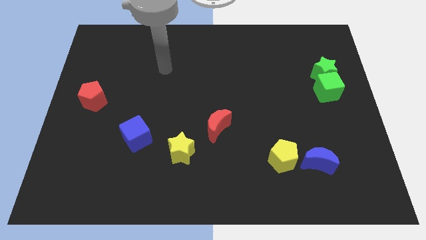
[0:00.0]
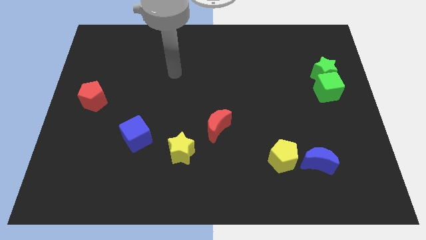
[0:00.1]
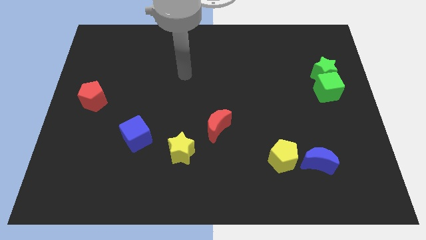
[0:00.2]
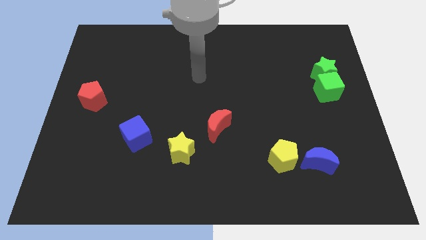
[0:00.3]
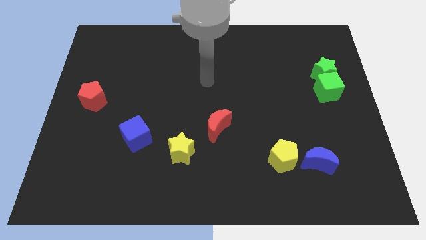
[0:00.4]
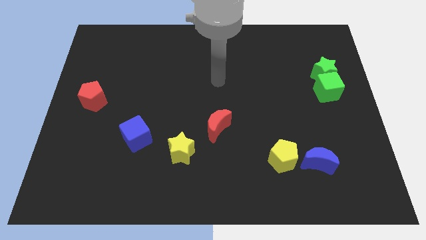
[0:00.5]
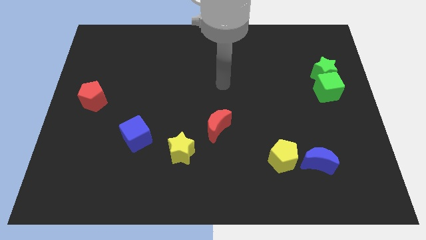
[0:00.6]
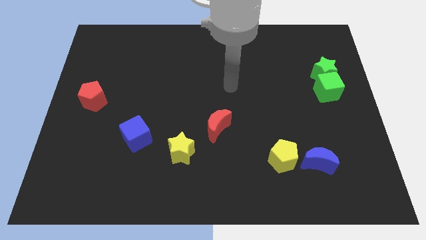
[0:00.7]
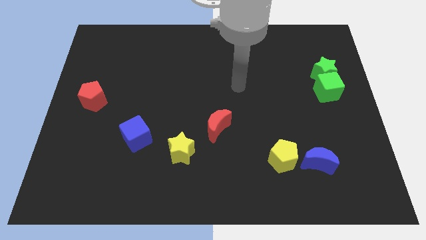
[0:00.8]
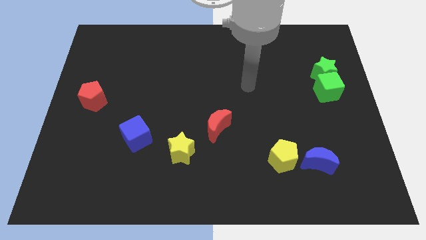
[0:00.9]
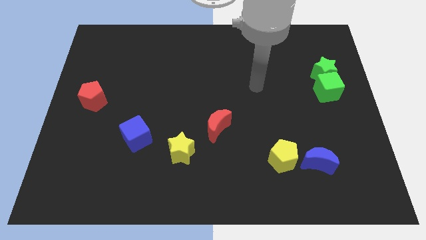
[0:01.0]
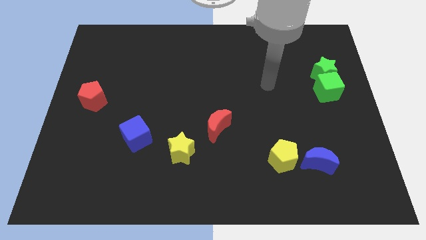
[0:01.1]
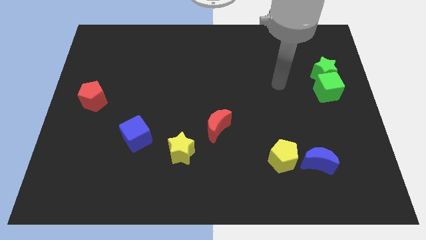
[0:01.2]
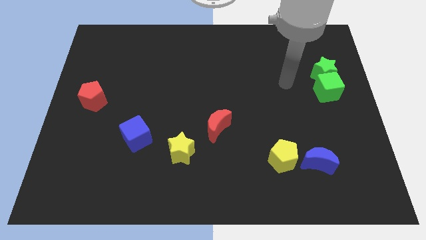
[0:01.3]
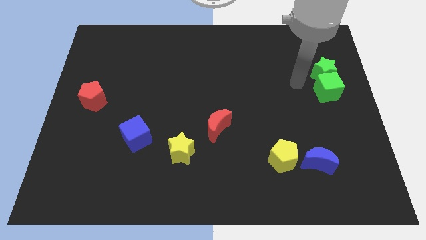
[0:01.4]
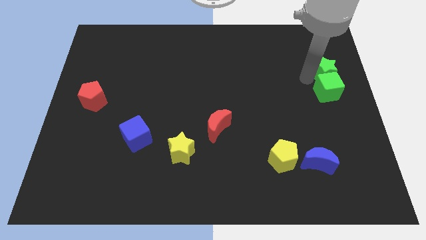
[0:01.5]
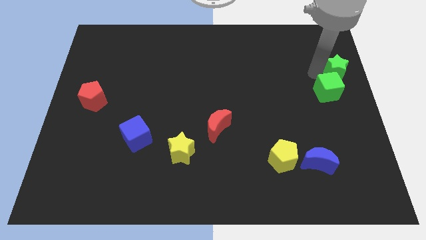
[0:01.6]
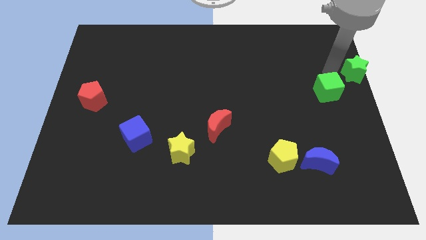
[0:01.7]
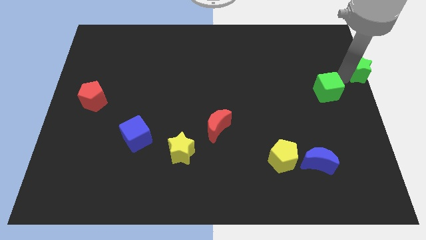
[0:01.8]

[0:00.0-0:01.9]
move the green cube away from the green star

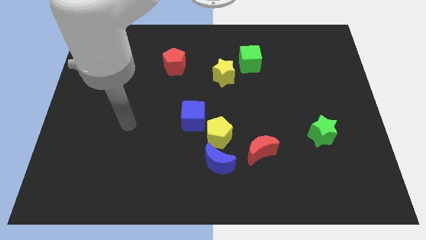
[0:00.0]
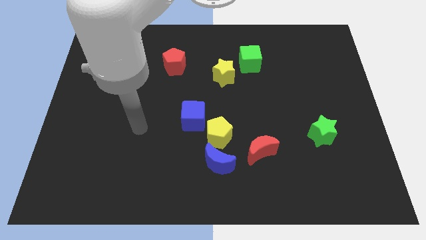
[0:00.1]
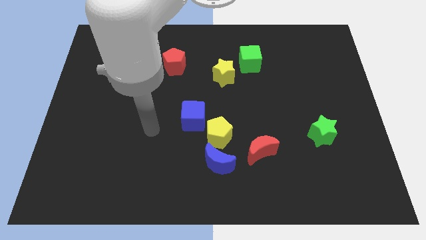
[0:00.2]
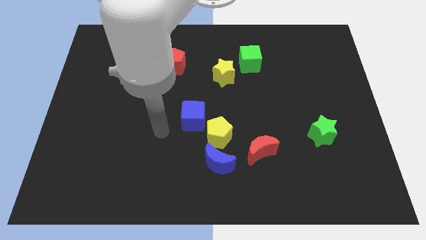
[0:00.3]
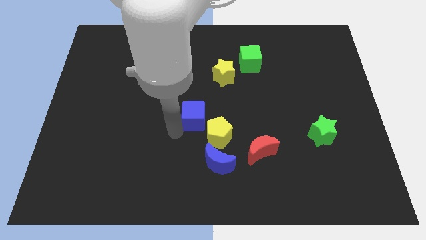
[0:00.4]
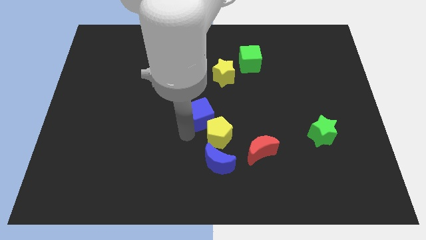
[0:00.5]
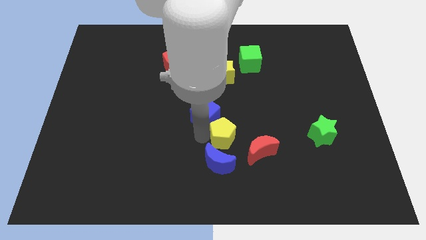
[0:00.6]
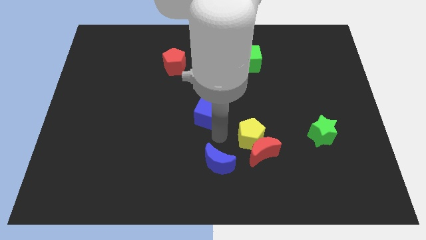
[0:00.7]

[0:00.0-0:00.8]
move the blue cube away from the yellow pentagon

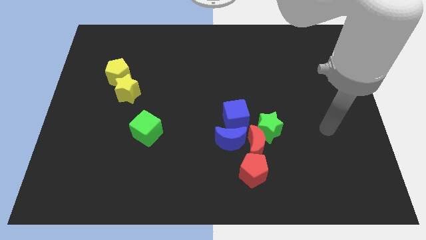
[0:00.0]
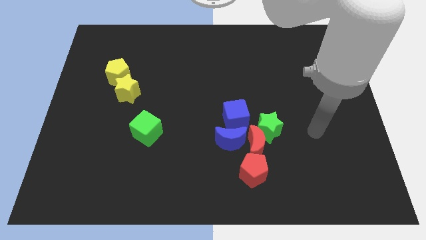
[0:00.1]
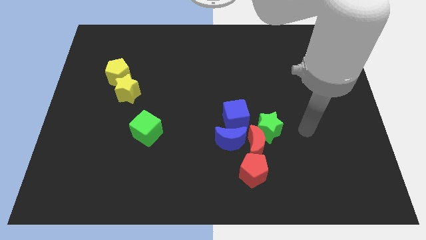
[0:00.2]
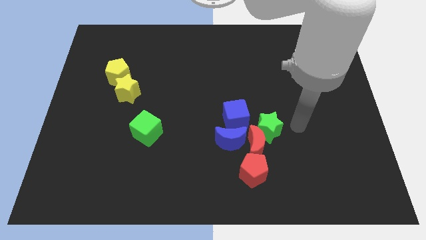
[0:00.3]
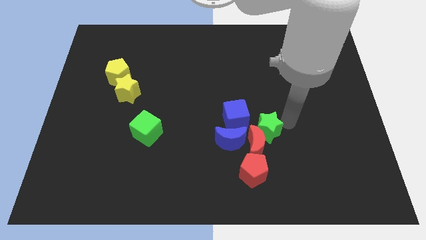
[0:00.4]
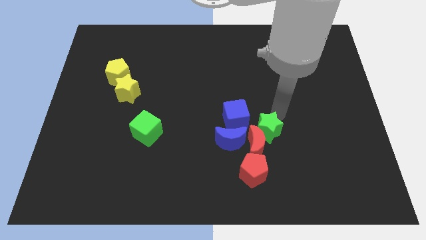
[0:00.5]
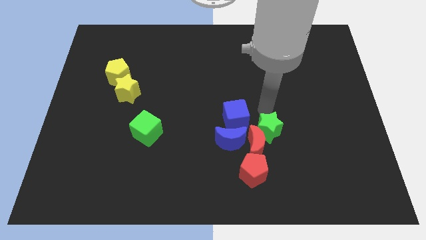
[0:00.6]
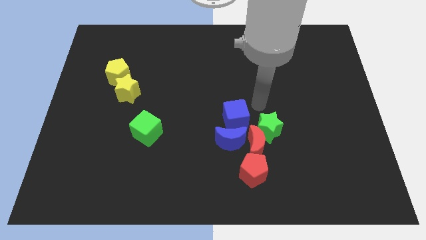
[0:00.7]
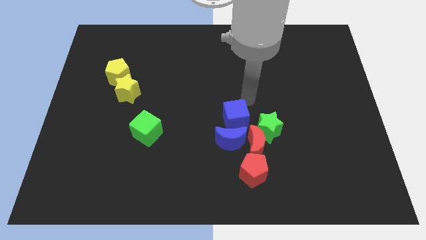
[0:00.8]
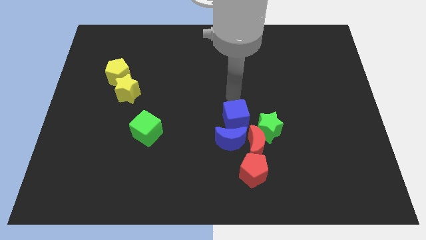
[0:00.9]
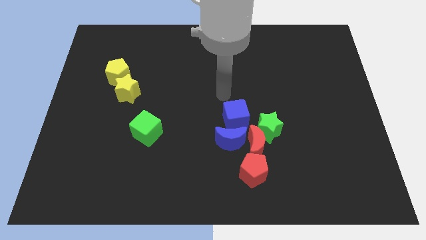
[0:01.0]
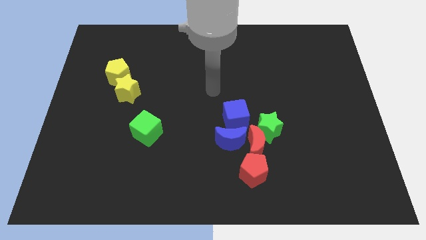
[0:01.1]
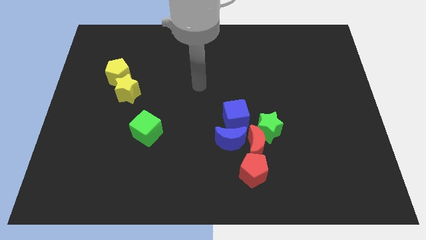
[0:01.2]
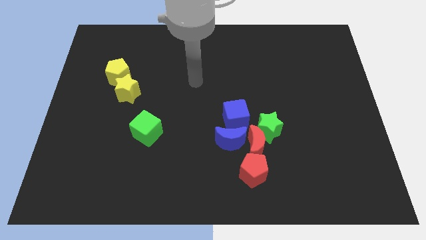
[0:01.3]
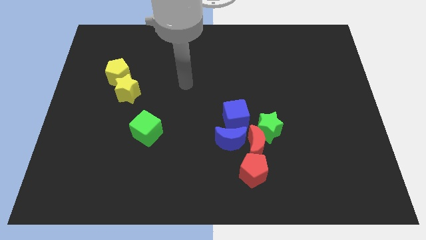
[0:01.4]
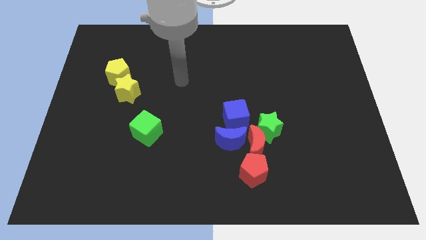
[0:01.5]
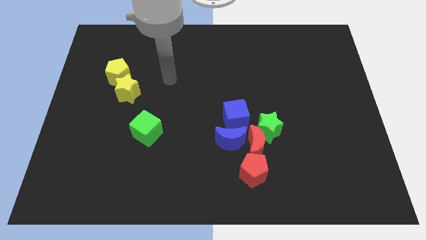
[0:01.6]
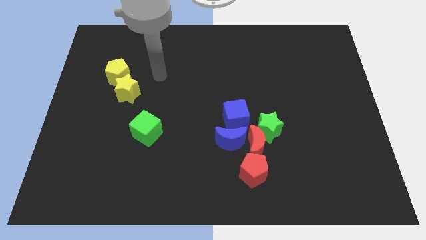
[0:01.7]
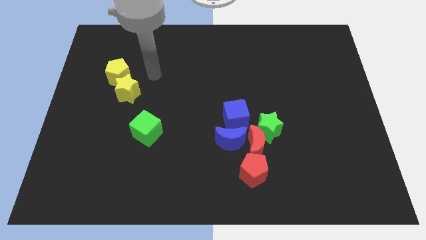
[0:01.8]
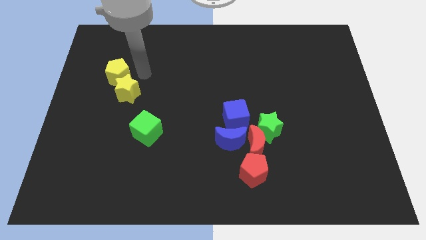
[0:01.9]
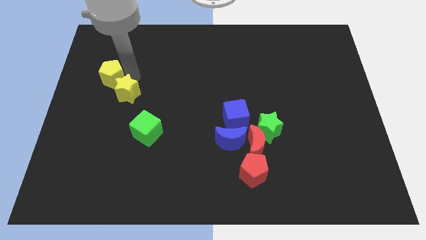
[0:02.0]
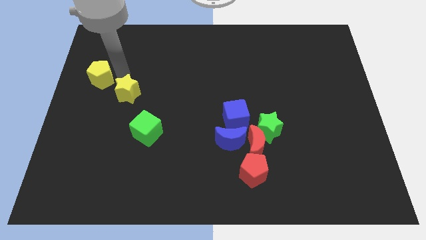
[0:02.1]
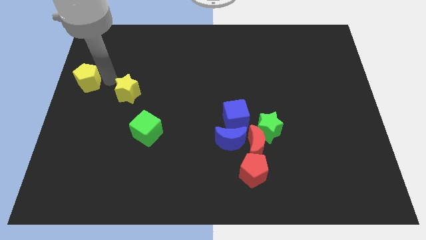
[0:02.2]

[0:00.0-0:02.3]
move the yellow star away from the yellow pentagon

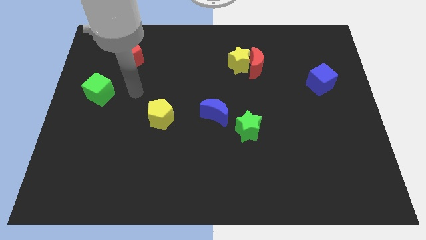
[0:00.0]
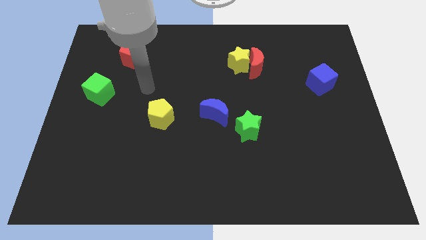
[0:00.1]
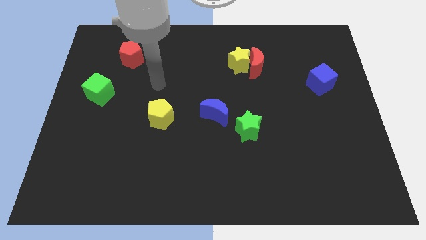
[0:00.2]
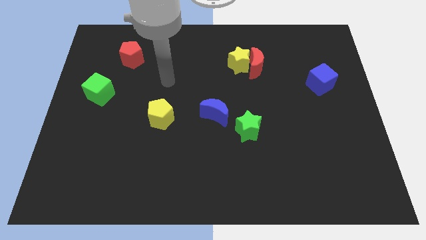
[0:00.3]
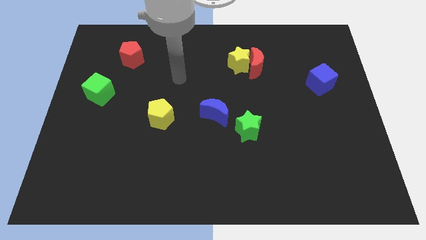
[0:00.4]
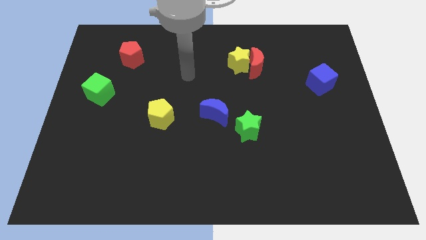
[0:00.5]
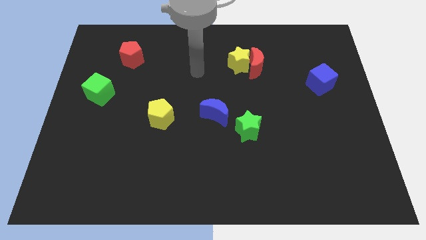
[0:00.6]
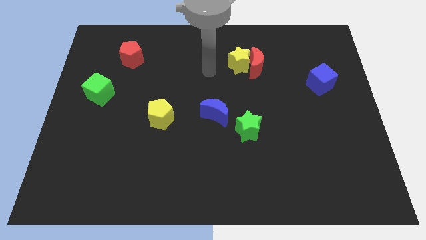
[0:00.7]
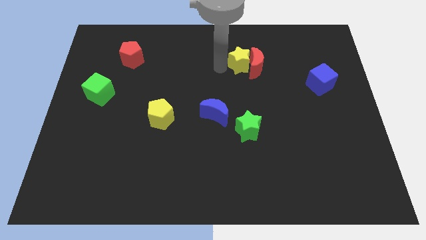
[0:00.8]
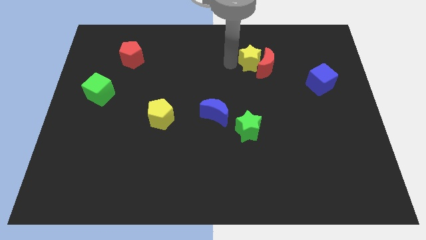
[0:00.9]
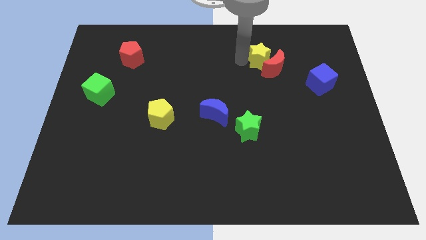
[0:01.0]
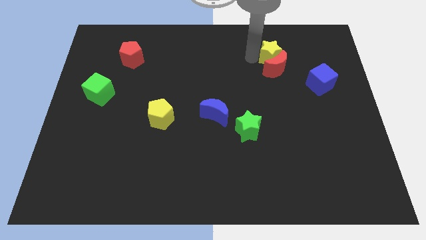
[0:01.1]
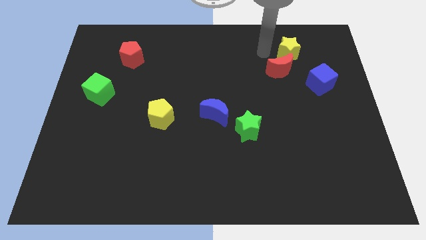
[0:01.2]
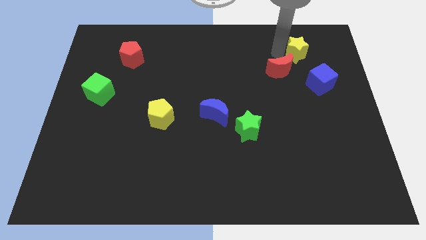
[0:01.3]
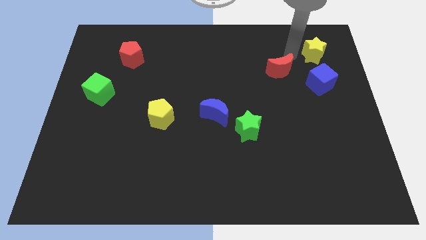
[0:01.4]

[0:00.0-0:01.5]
move the red moon away from the yellow star

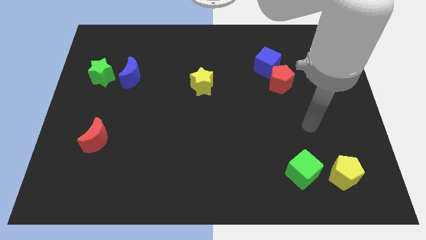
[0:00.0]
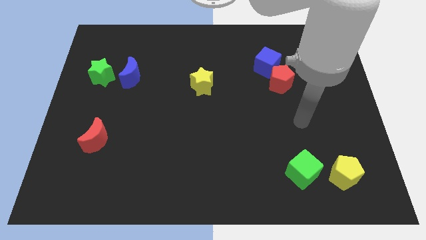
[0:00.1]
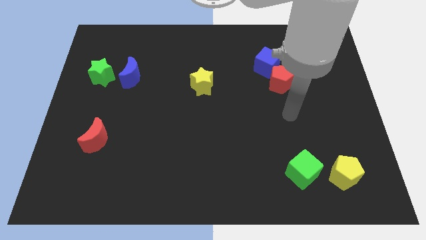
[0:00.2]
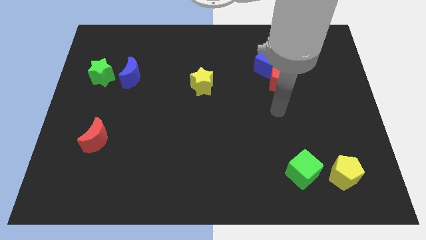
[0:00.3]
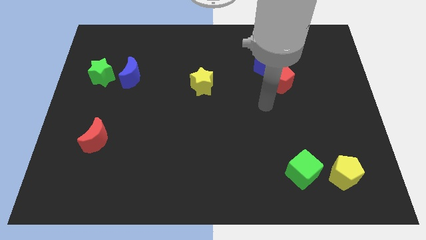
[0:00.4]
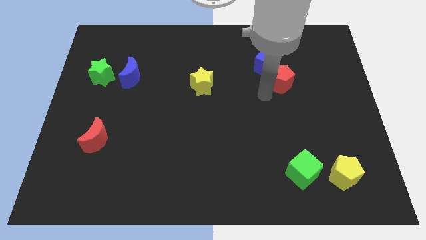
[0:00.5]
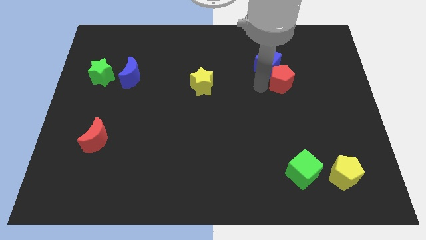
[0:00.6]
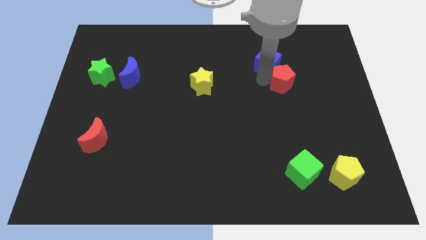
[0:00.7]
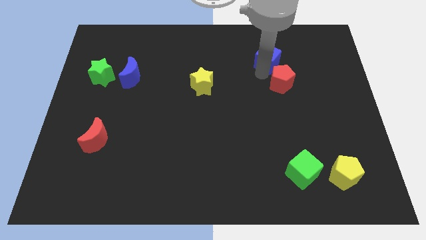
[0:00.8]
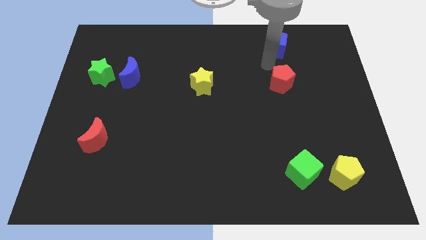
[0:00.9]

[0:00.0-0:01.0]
separate the red pentagon from the blue cube

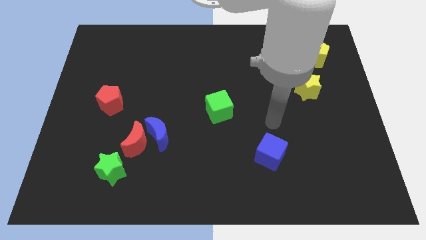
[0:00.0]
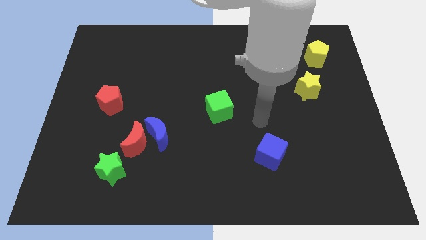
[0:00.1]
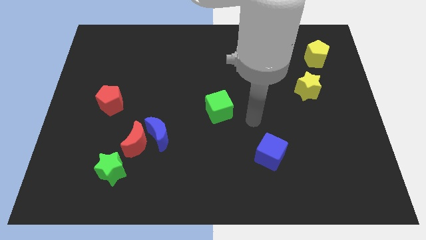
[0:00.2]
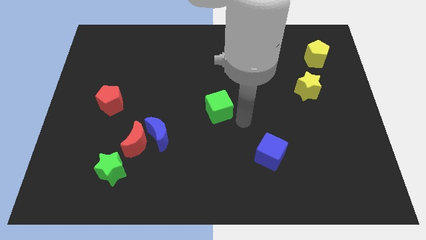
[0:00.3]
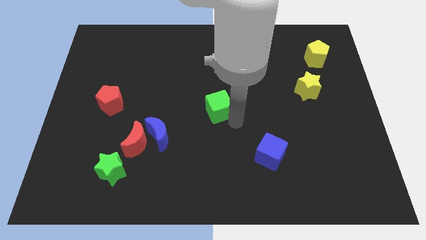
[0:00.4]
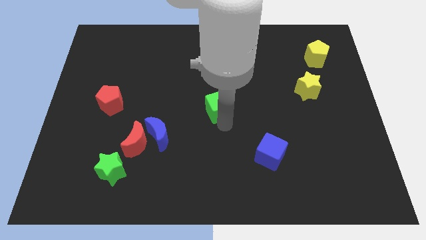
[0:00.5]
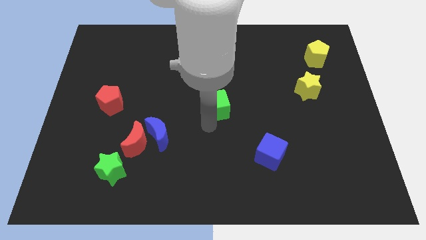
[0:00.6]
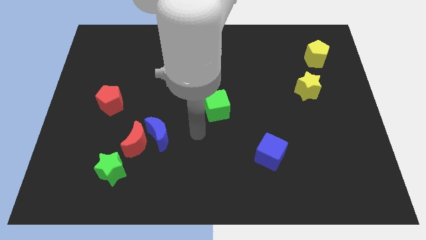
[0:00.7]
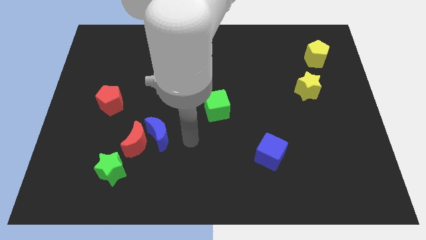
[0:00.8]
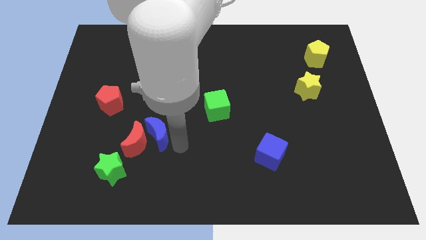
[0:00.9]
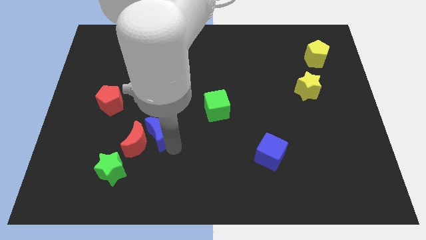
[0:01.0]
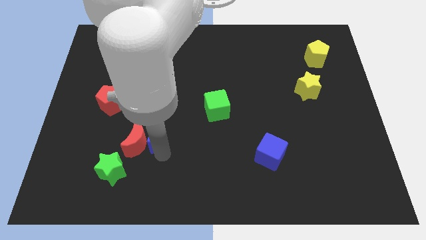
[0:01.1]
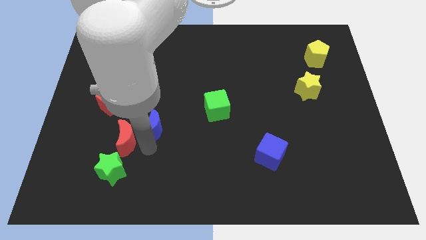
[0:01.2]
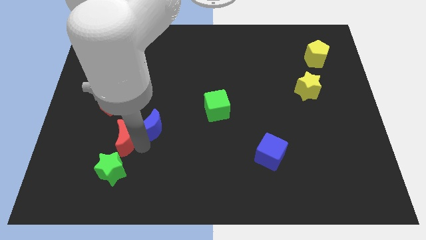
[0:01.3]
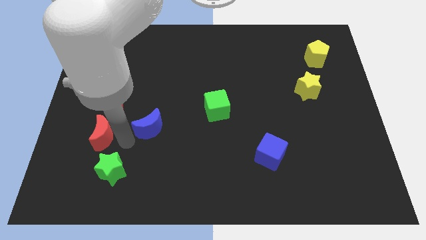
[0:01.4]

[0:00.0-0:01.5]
pull the blue moon apart from the red moon

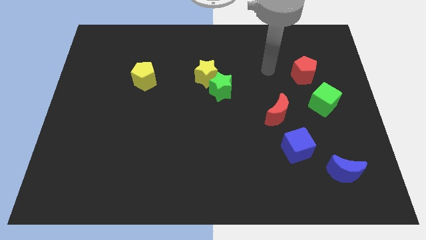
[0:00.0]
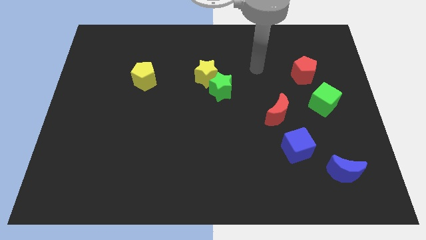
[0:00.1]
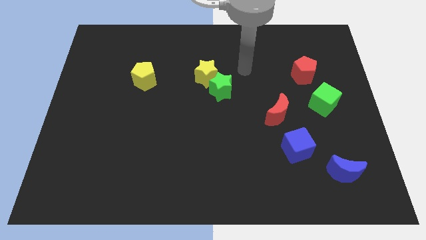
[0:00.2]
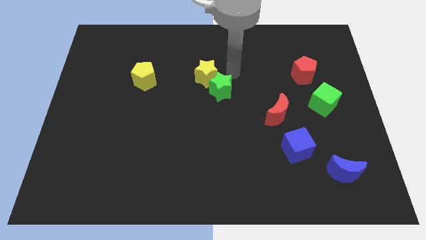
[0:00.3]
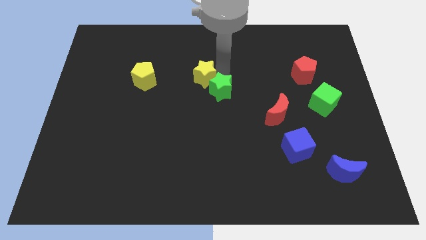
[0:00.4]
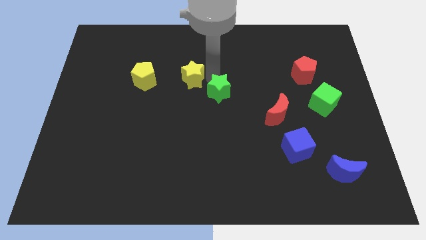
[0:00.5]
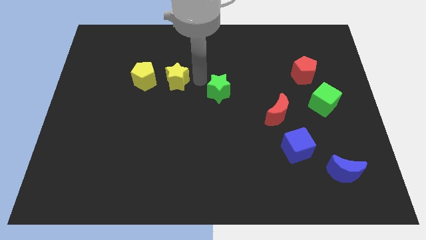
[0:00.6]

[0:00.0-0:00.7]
pull the green star apart from the yellow star
